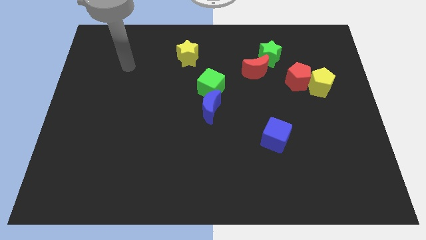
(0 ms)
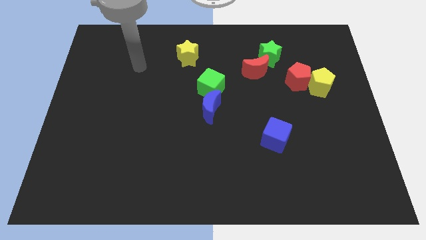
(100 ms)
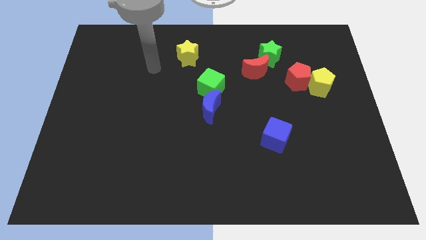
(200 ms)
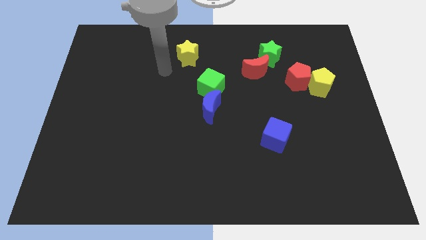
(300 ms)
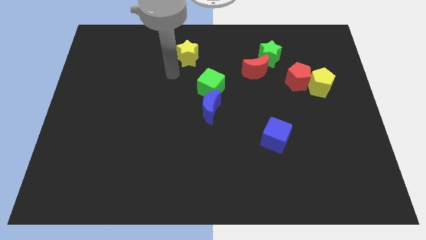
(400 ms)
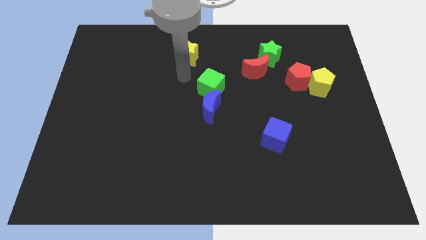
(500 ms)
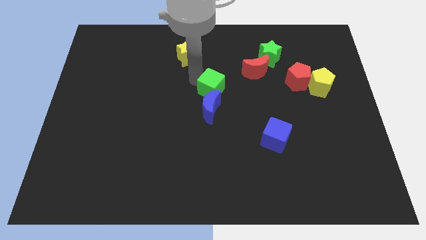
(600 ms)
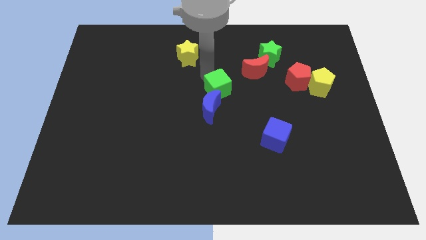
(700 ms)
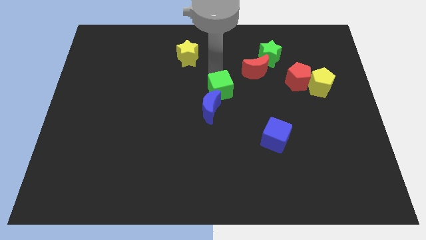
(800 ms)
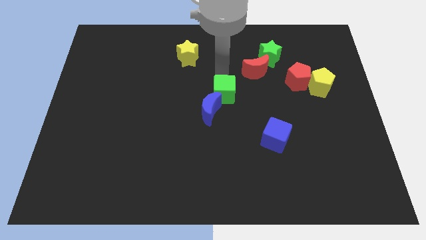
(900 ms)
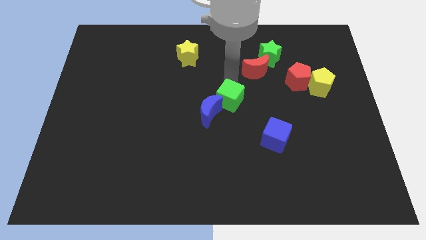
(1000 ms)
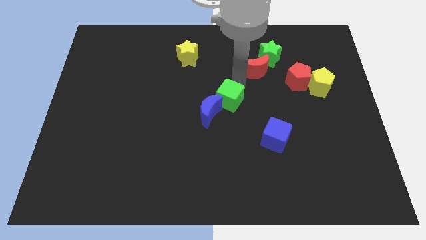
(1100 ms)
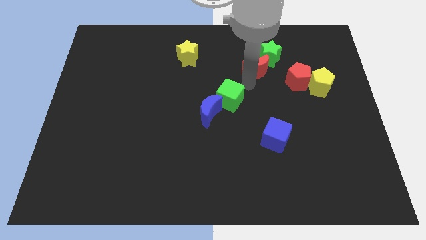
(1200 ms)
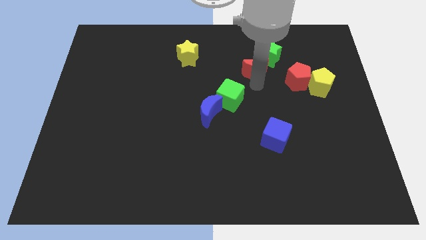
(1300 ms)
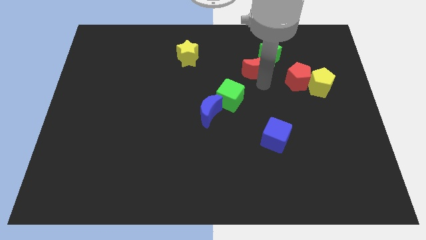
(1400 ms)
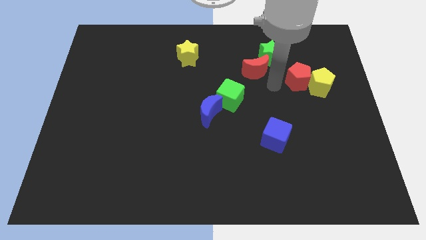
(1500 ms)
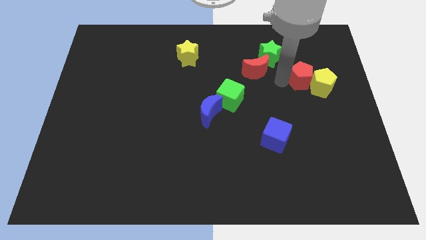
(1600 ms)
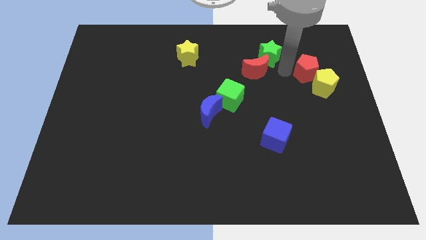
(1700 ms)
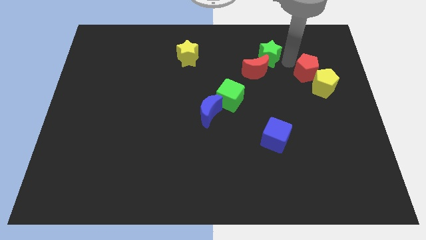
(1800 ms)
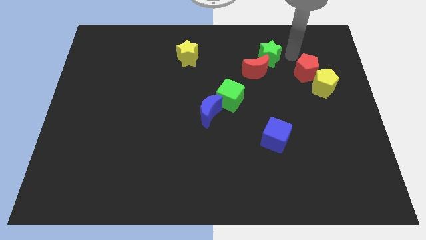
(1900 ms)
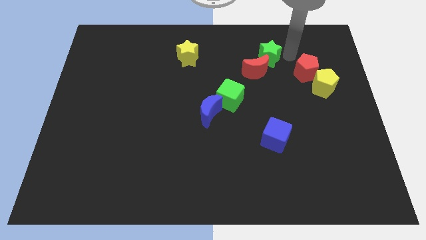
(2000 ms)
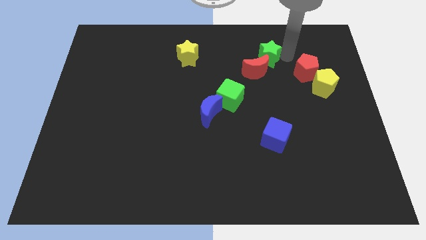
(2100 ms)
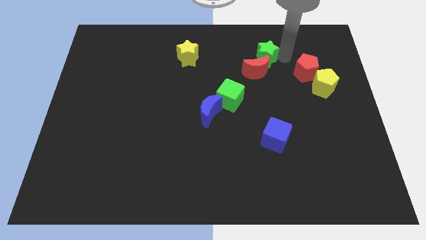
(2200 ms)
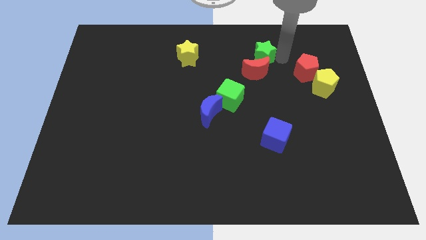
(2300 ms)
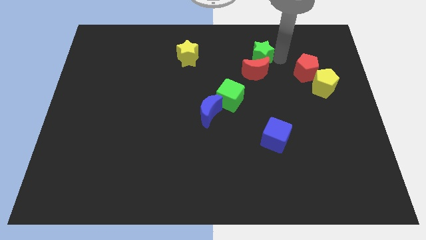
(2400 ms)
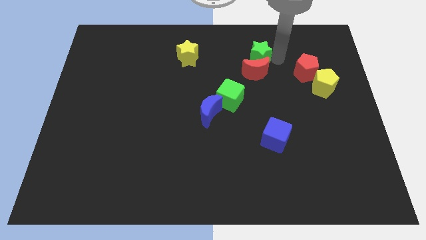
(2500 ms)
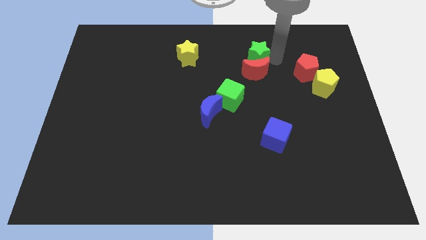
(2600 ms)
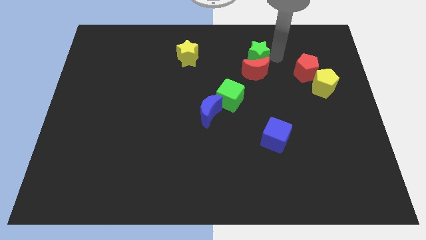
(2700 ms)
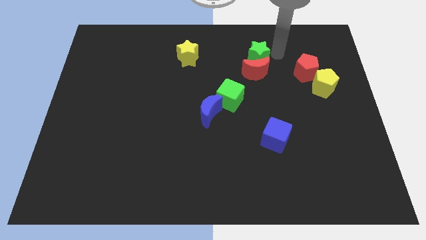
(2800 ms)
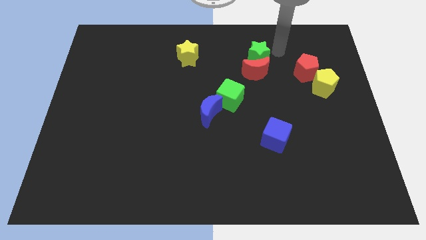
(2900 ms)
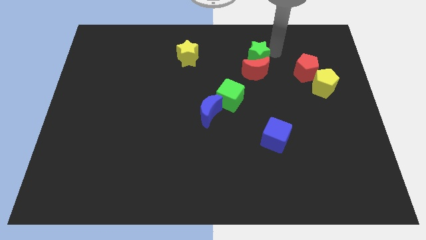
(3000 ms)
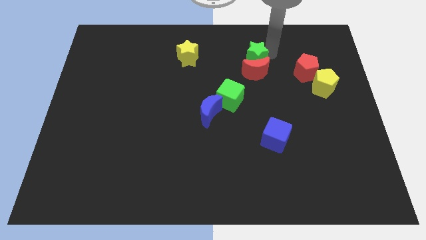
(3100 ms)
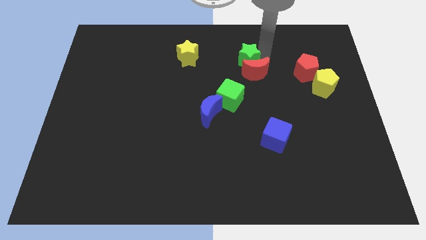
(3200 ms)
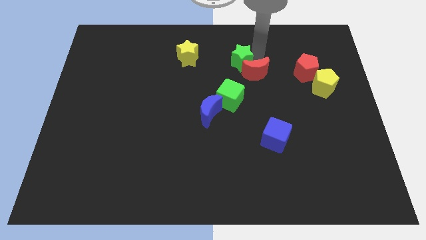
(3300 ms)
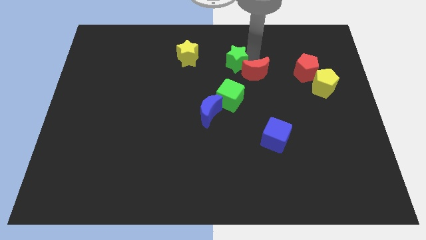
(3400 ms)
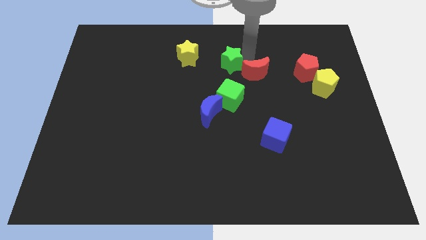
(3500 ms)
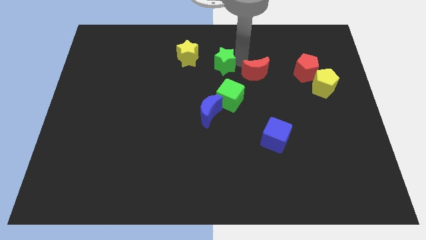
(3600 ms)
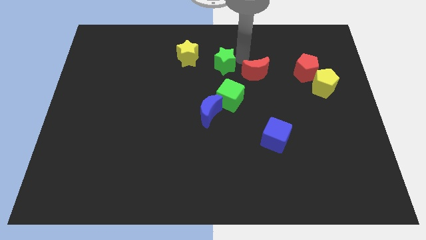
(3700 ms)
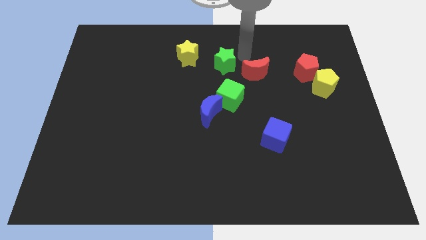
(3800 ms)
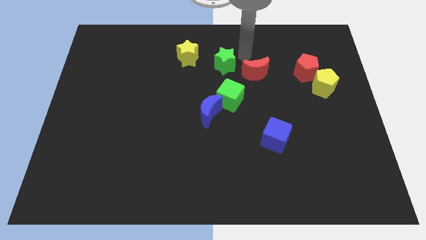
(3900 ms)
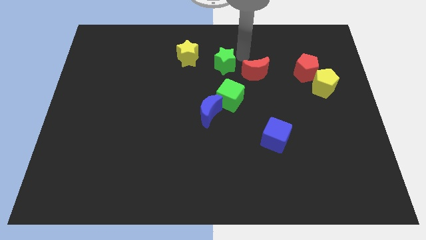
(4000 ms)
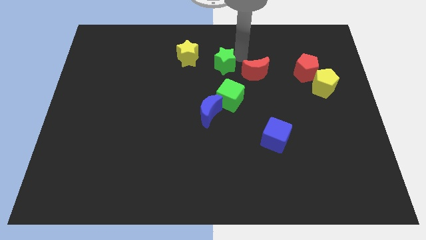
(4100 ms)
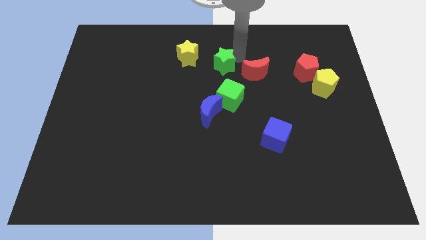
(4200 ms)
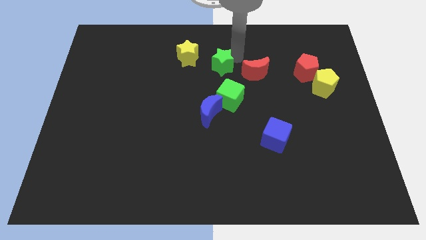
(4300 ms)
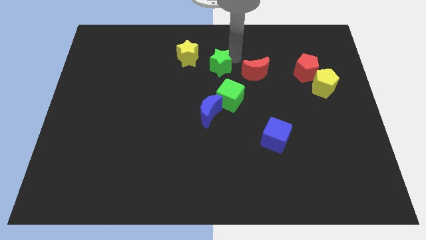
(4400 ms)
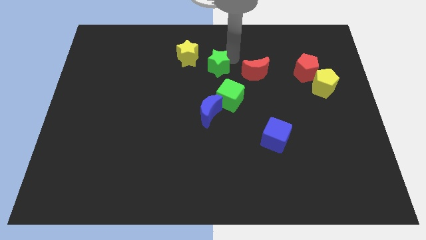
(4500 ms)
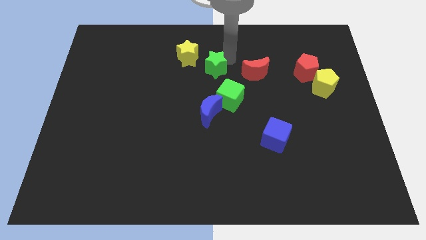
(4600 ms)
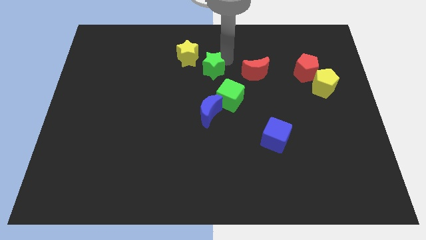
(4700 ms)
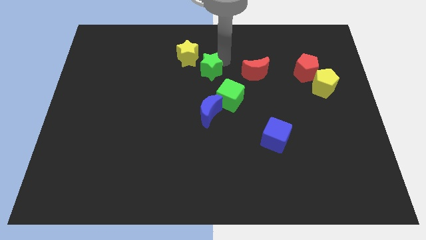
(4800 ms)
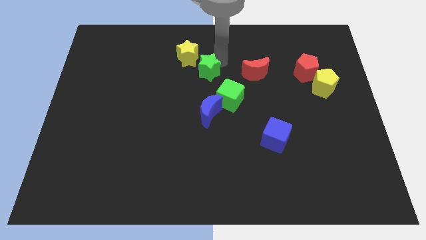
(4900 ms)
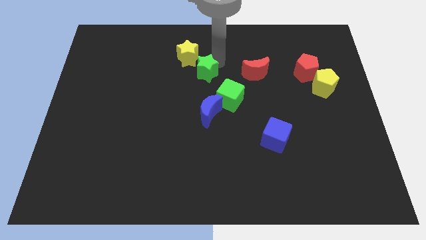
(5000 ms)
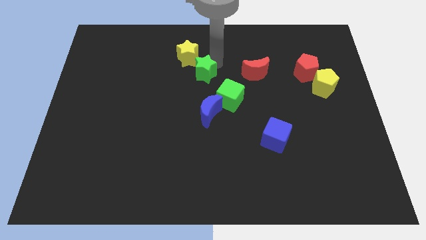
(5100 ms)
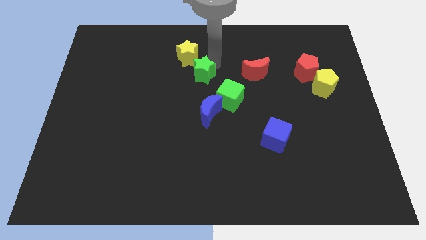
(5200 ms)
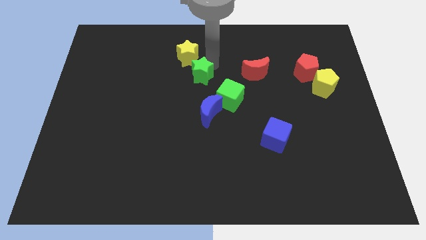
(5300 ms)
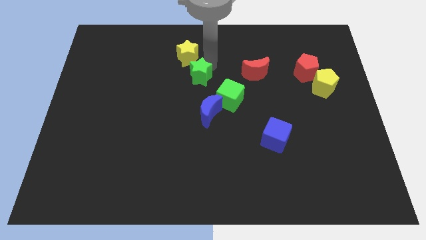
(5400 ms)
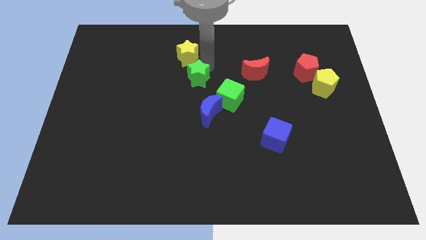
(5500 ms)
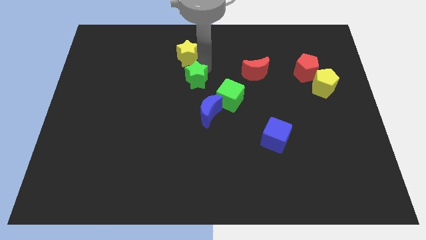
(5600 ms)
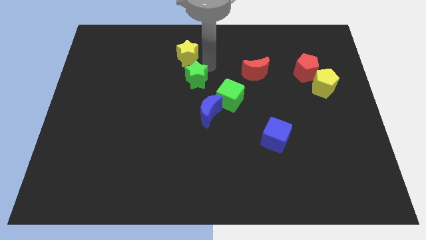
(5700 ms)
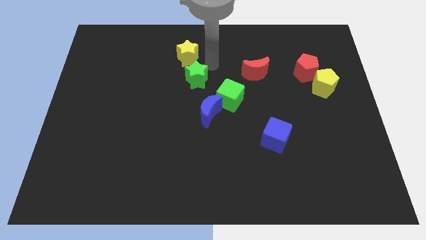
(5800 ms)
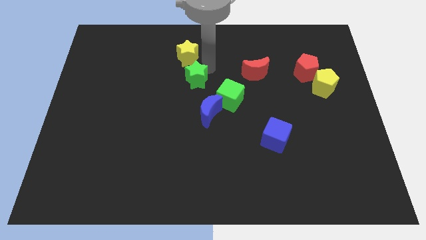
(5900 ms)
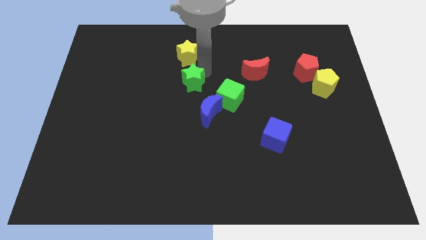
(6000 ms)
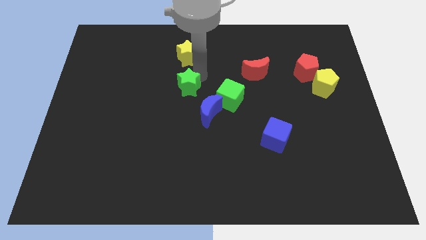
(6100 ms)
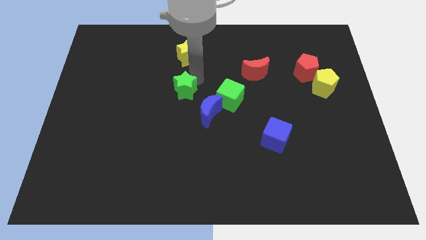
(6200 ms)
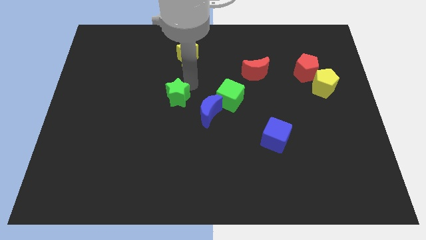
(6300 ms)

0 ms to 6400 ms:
push the green star just left of the blue moon

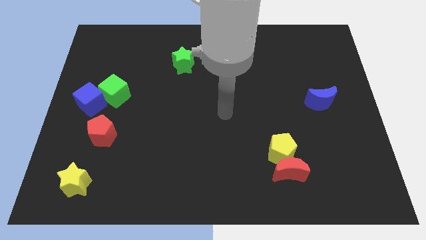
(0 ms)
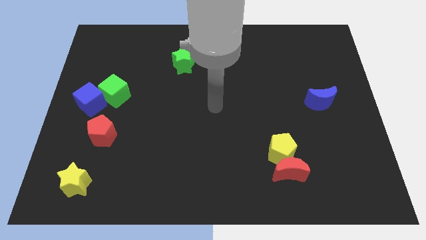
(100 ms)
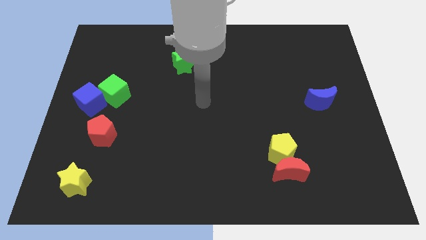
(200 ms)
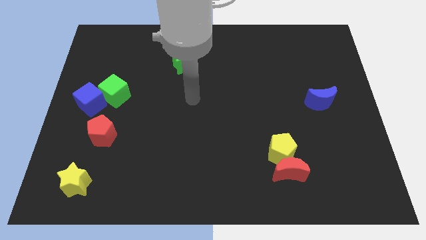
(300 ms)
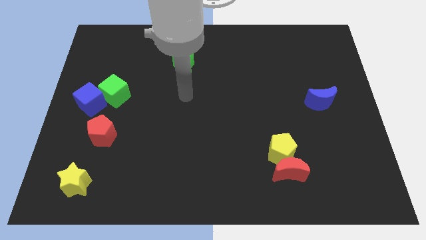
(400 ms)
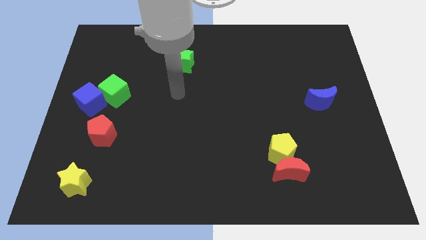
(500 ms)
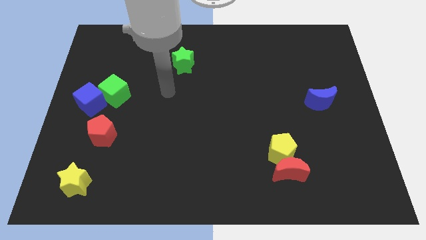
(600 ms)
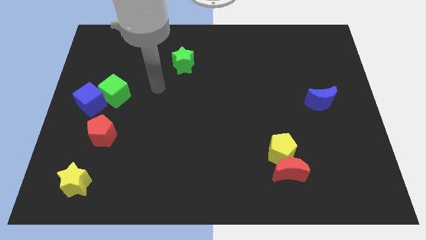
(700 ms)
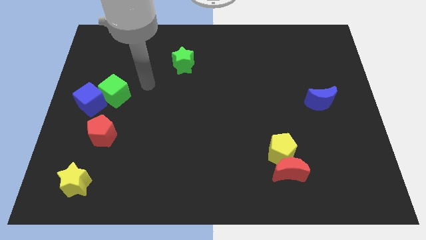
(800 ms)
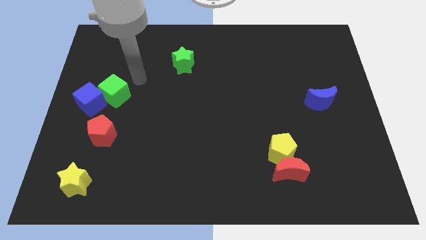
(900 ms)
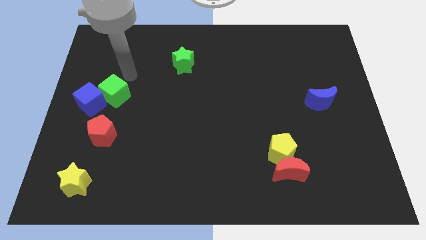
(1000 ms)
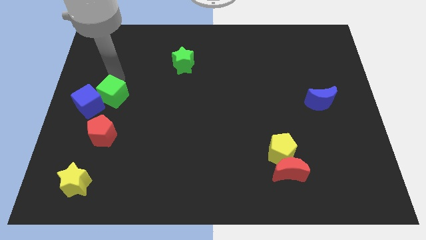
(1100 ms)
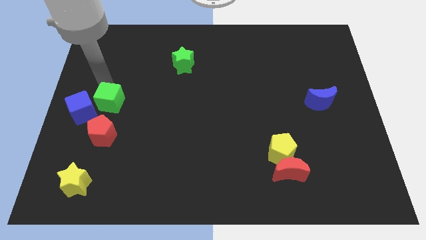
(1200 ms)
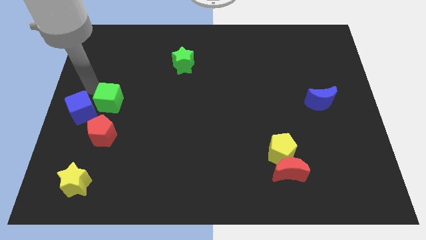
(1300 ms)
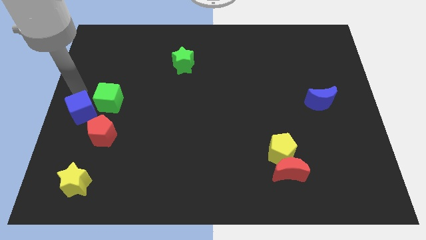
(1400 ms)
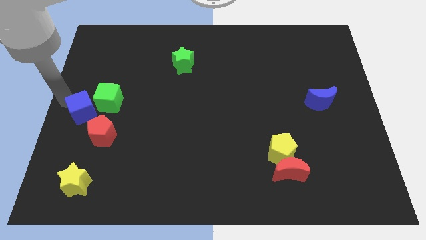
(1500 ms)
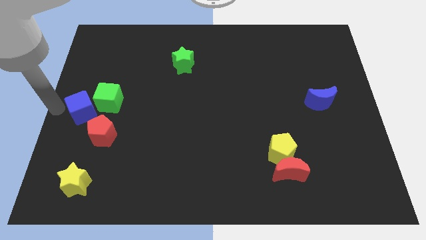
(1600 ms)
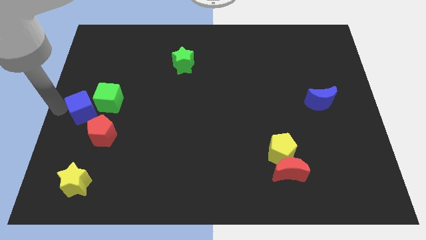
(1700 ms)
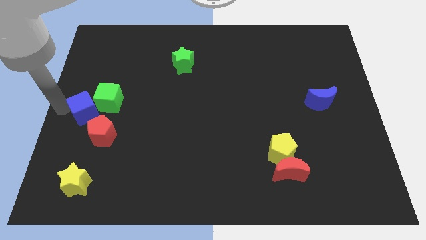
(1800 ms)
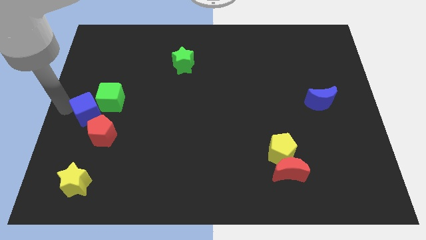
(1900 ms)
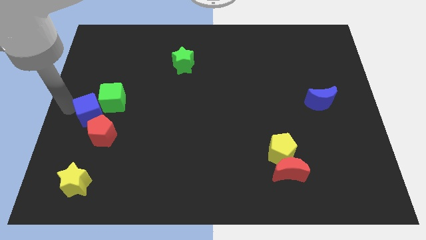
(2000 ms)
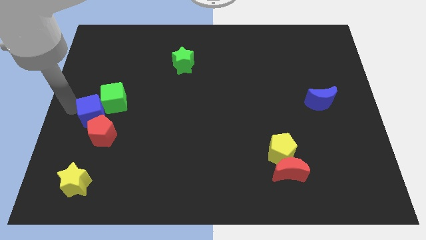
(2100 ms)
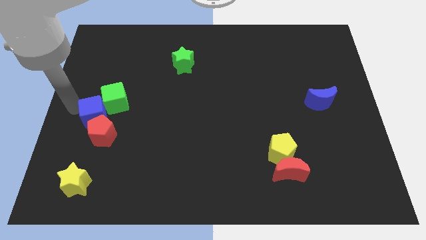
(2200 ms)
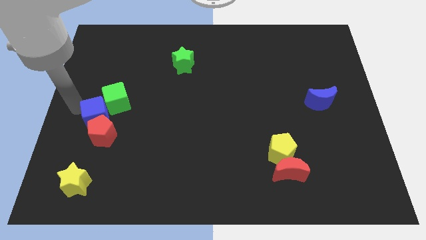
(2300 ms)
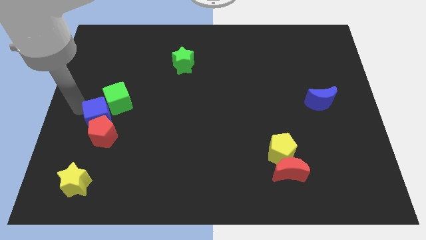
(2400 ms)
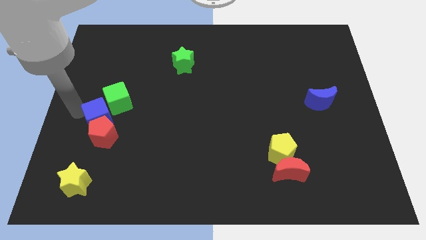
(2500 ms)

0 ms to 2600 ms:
put the blue cube diagonally up and to the right of the red pentagon
